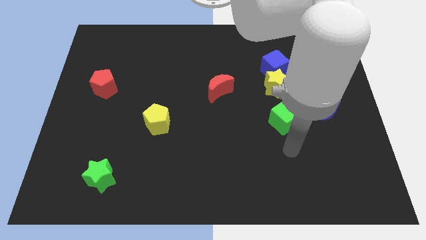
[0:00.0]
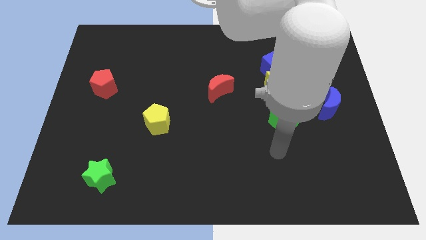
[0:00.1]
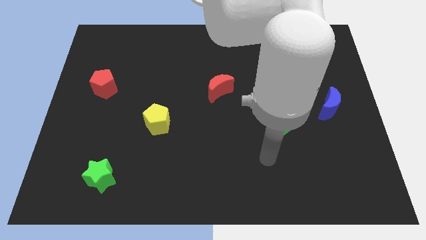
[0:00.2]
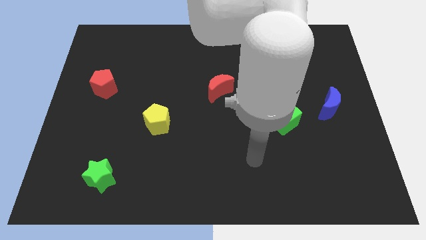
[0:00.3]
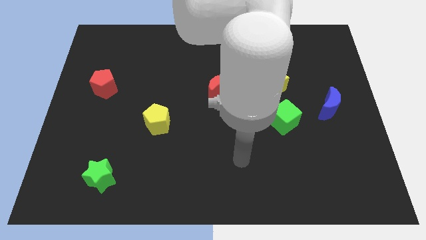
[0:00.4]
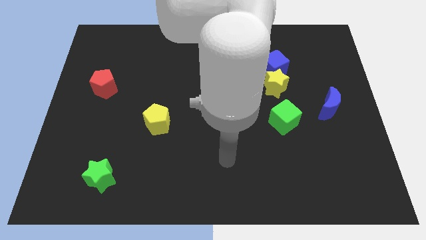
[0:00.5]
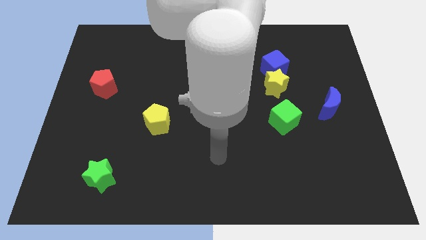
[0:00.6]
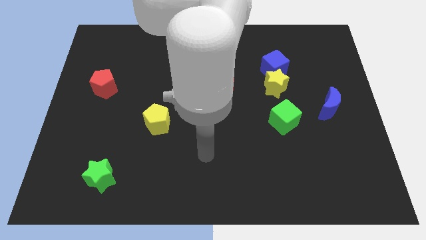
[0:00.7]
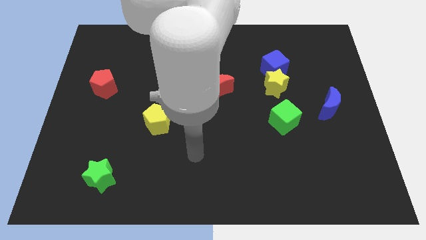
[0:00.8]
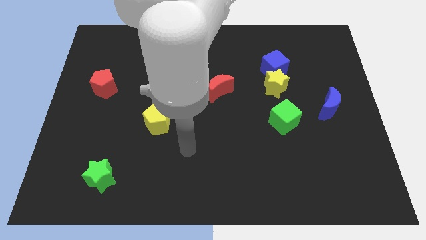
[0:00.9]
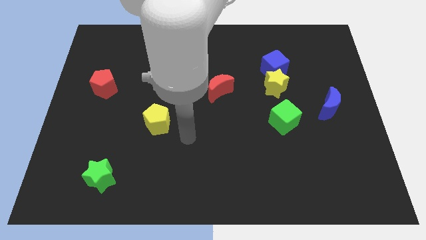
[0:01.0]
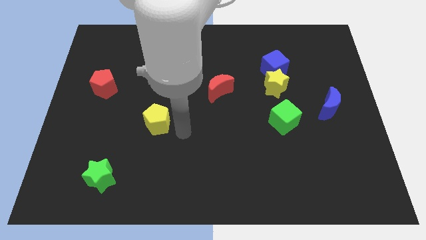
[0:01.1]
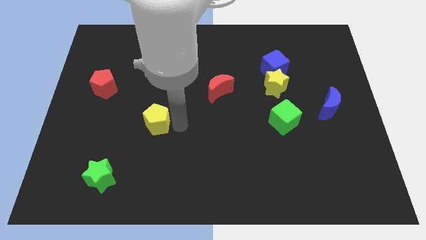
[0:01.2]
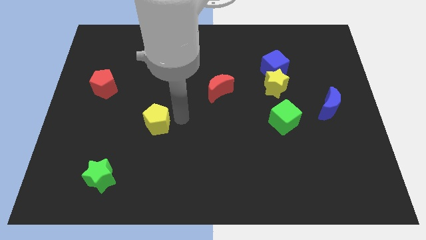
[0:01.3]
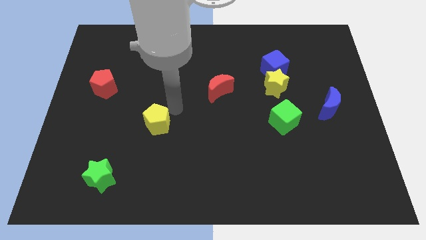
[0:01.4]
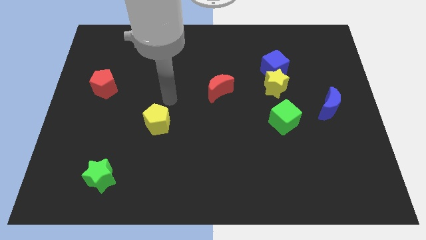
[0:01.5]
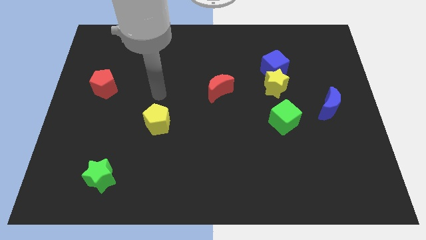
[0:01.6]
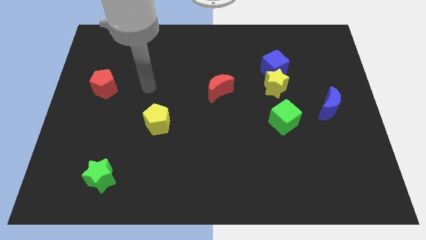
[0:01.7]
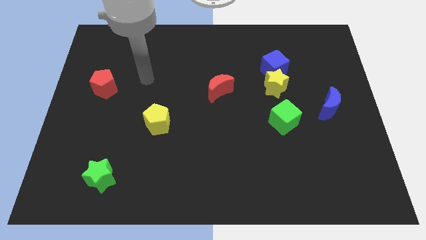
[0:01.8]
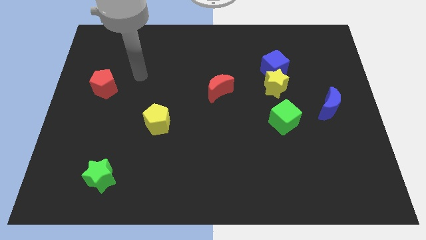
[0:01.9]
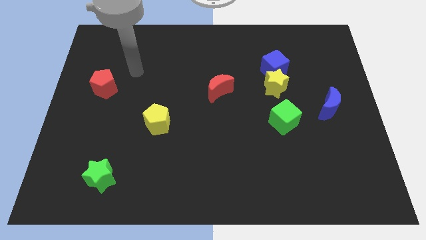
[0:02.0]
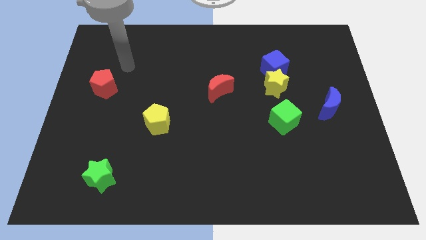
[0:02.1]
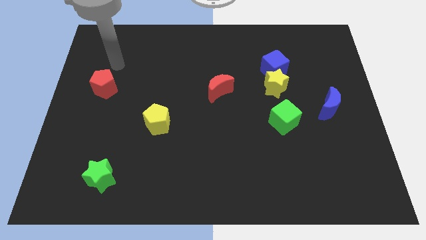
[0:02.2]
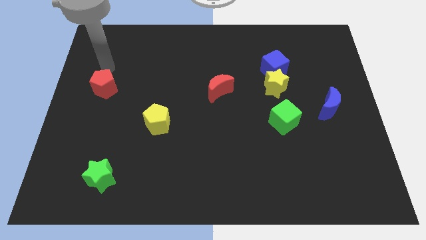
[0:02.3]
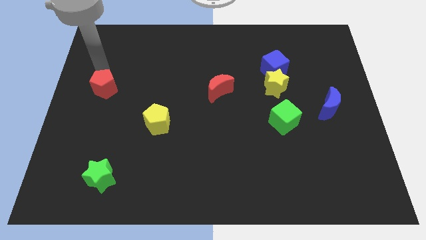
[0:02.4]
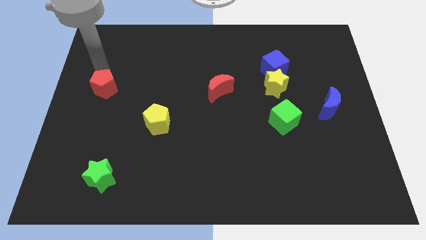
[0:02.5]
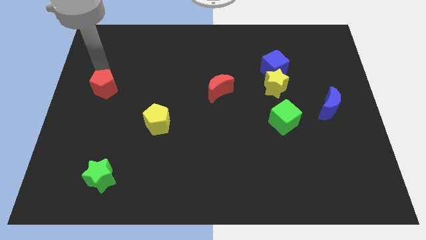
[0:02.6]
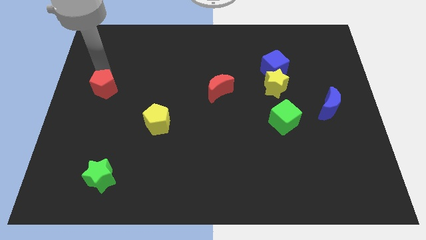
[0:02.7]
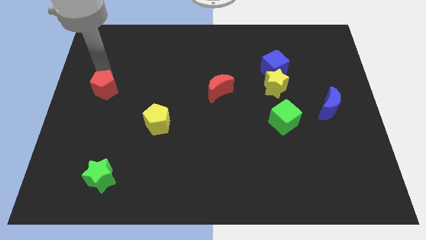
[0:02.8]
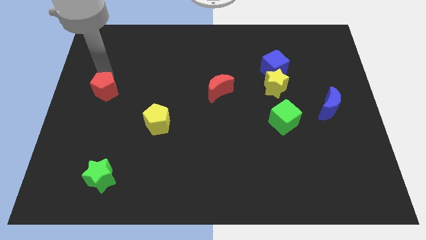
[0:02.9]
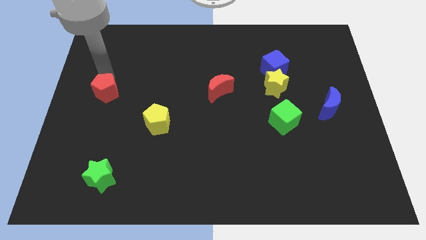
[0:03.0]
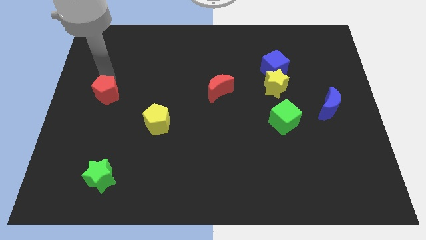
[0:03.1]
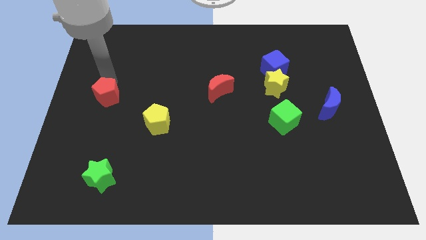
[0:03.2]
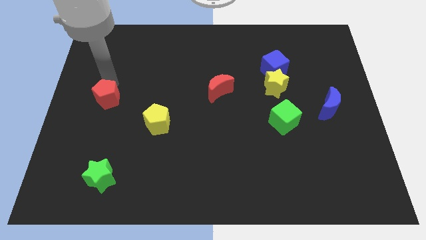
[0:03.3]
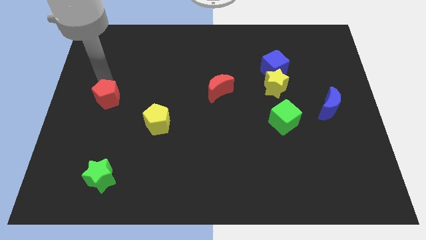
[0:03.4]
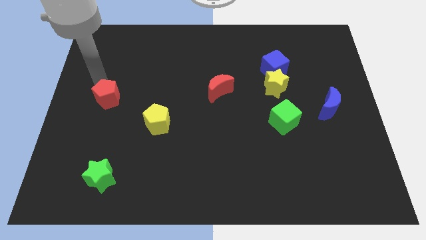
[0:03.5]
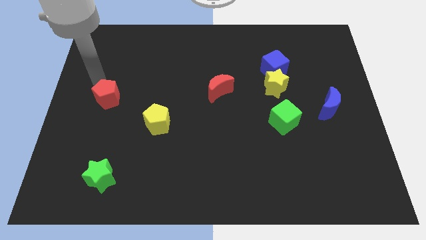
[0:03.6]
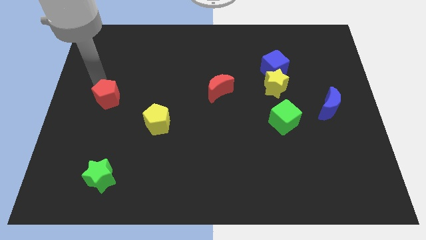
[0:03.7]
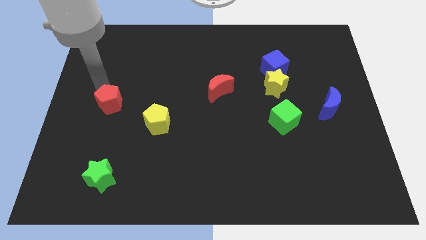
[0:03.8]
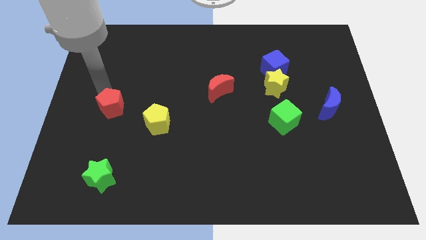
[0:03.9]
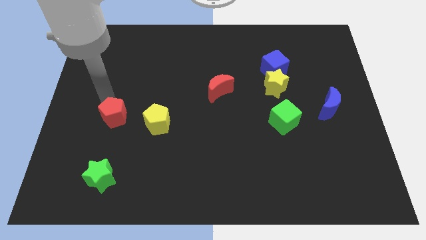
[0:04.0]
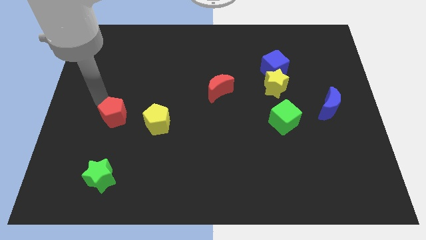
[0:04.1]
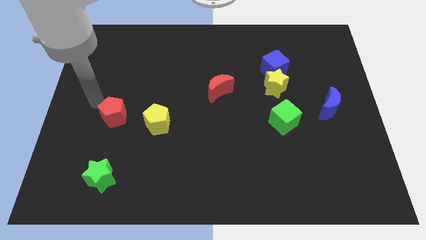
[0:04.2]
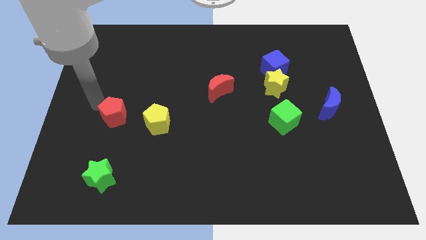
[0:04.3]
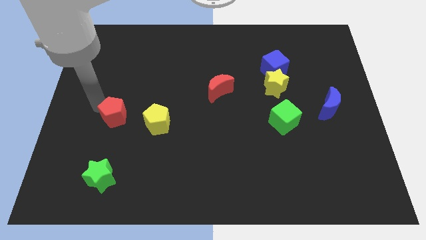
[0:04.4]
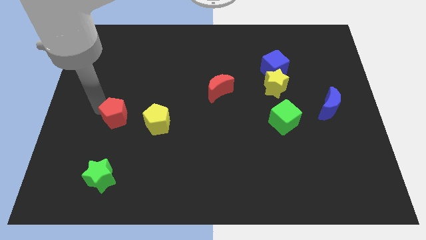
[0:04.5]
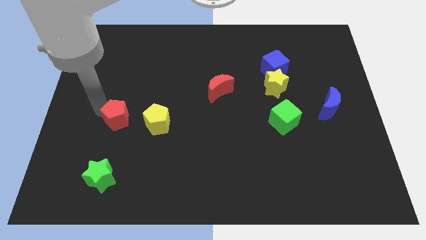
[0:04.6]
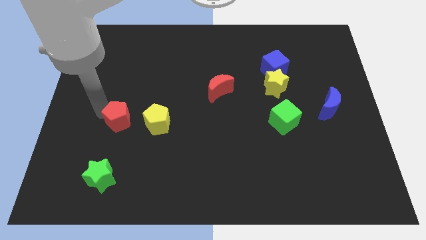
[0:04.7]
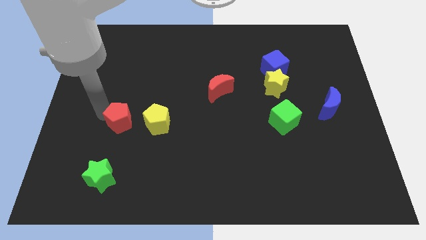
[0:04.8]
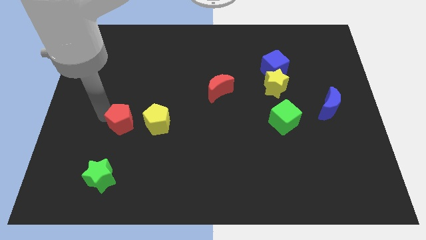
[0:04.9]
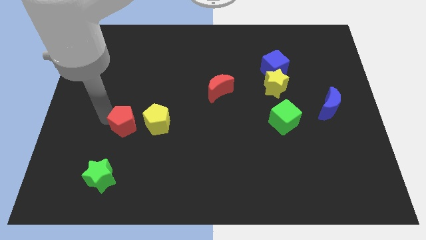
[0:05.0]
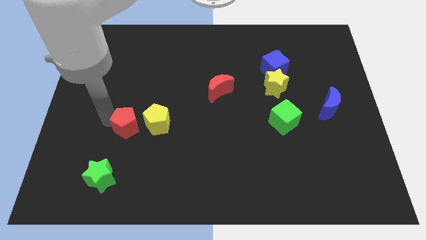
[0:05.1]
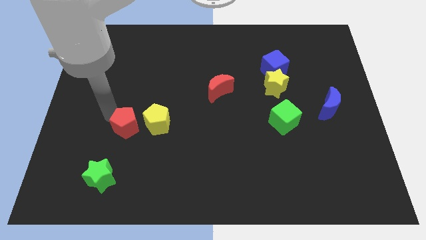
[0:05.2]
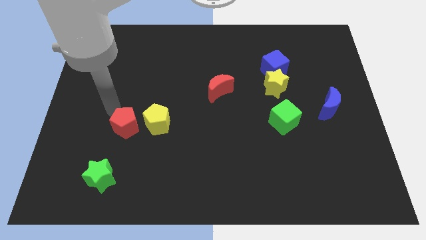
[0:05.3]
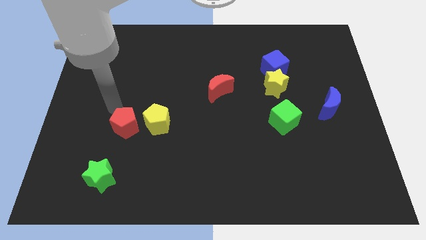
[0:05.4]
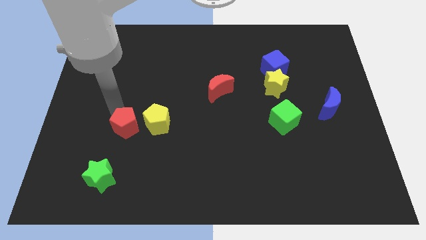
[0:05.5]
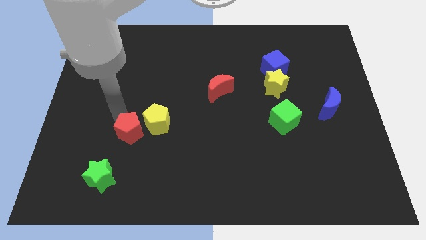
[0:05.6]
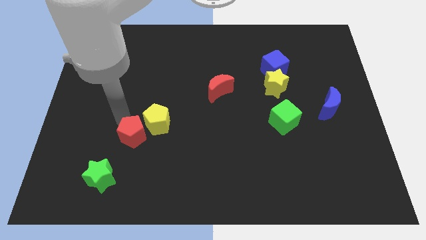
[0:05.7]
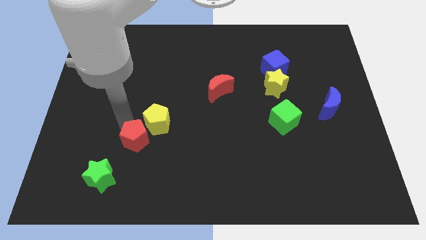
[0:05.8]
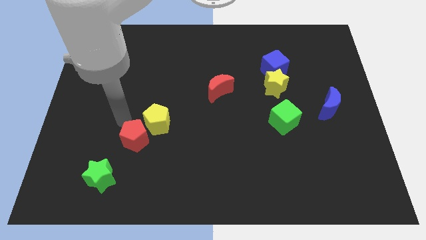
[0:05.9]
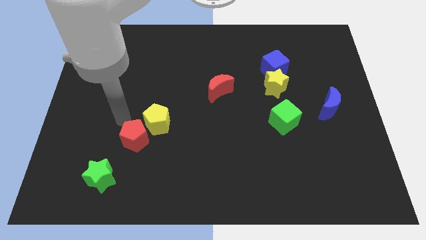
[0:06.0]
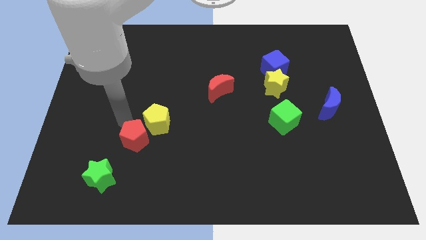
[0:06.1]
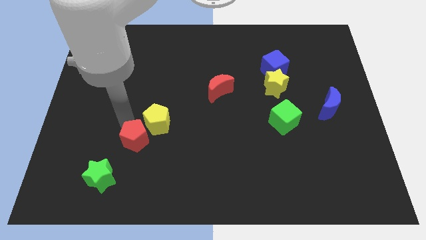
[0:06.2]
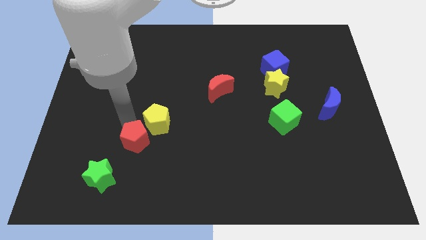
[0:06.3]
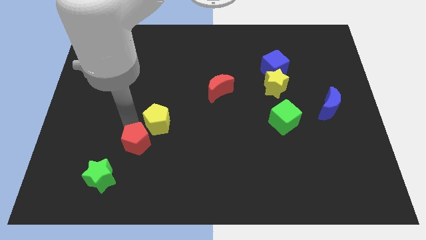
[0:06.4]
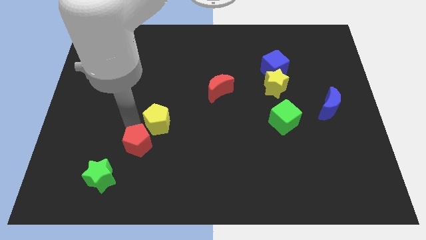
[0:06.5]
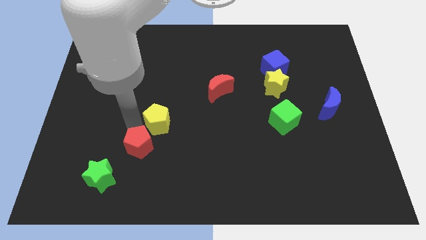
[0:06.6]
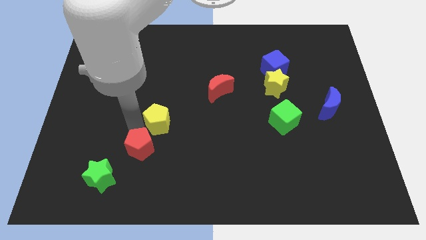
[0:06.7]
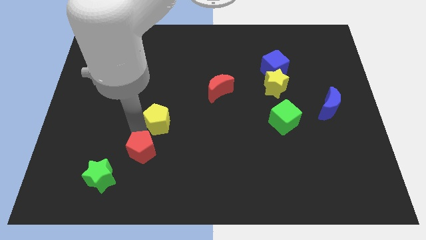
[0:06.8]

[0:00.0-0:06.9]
push the red pentagon down and right

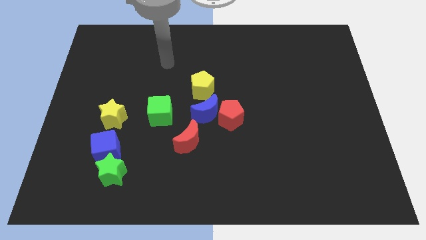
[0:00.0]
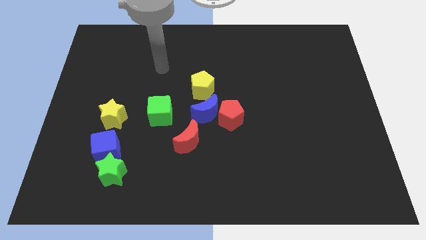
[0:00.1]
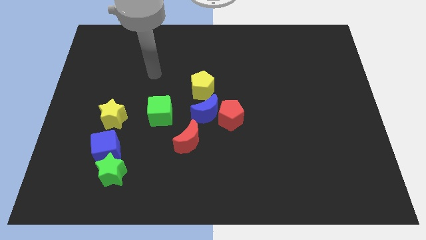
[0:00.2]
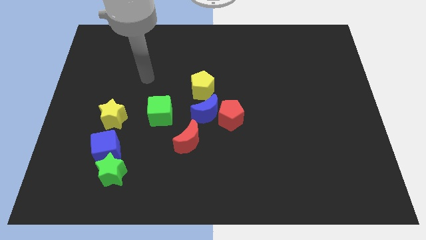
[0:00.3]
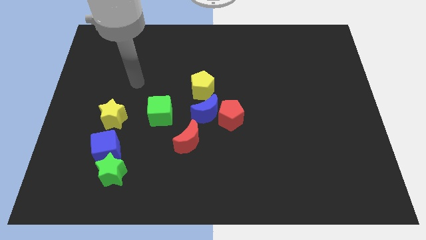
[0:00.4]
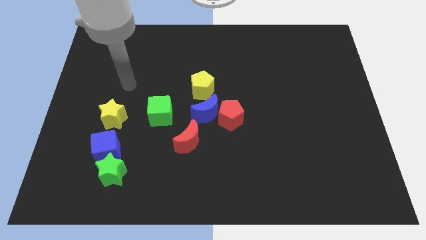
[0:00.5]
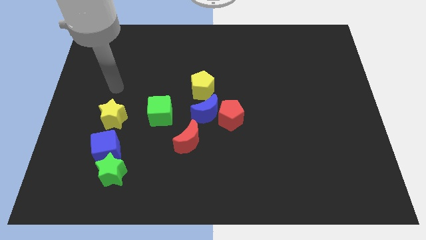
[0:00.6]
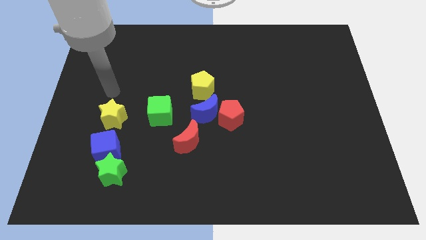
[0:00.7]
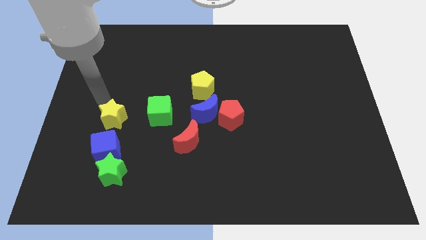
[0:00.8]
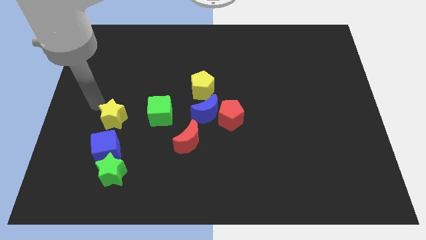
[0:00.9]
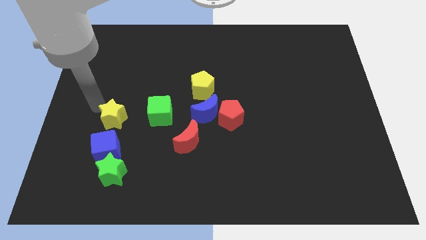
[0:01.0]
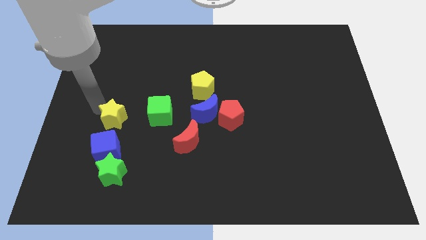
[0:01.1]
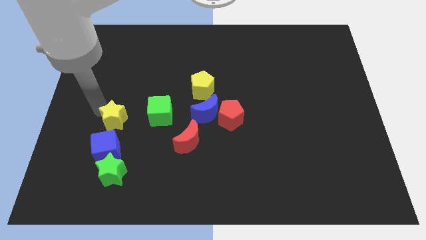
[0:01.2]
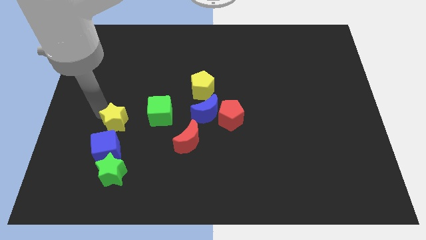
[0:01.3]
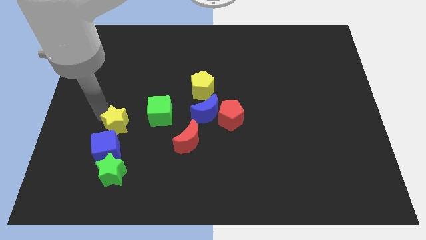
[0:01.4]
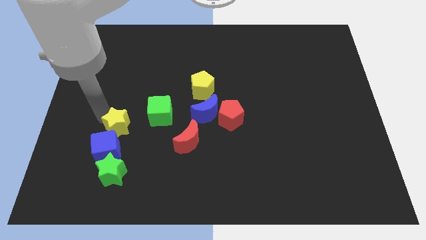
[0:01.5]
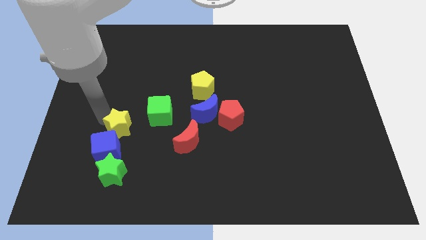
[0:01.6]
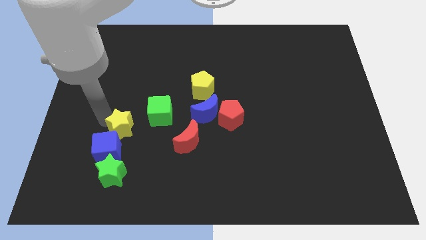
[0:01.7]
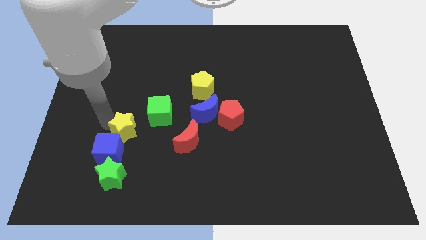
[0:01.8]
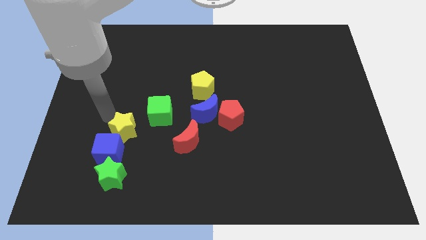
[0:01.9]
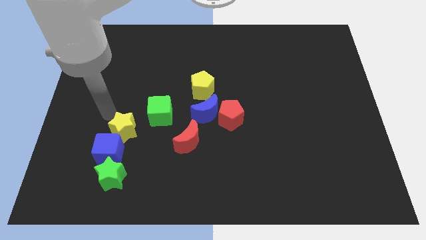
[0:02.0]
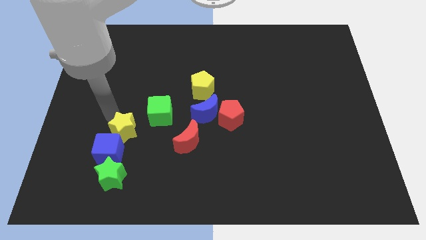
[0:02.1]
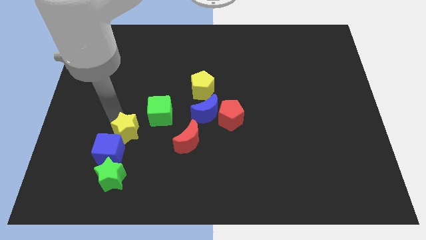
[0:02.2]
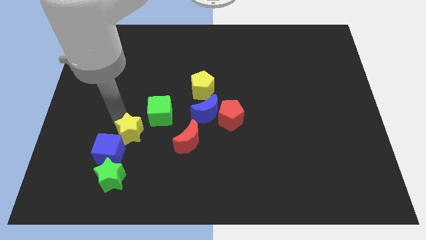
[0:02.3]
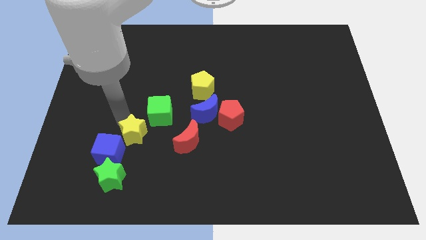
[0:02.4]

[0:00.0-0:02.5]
slightly slide the yellow star down and to the right diagonally
